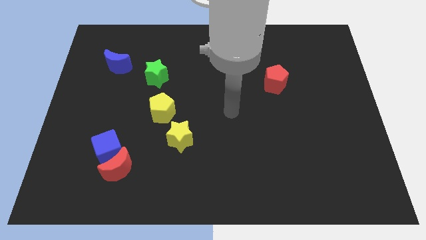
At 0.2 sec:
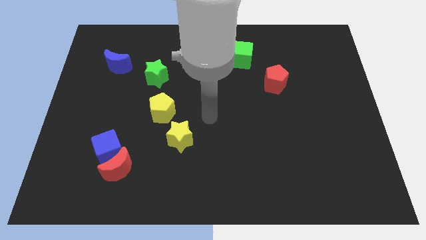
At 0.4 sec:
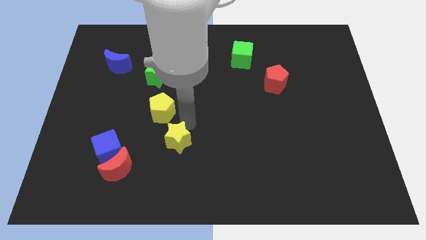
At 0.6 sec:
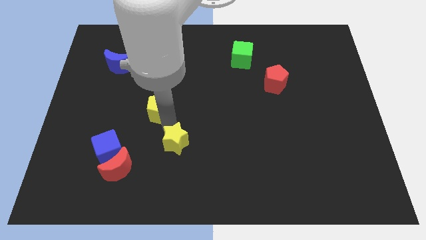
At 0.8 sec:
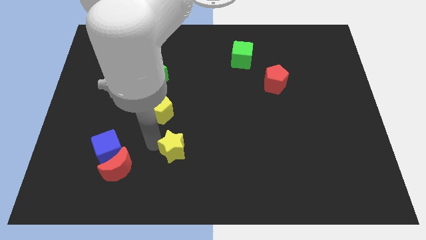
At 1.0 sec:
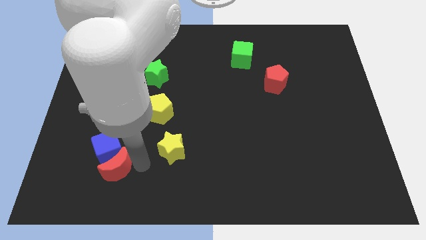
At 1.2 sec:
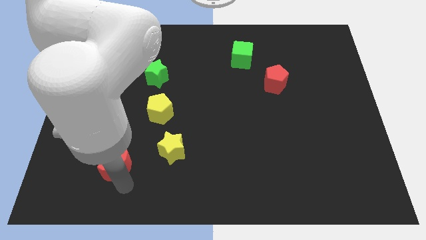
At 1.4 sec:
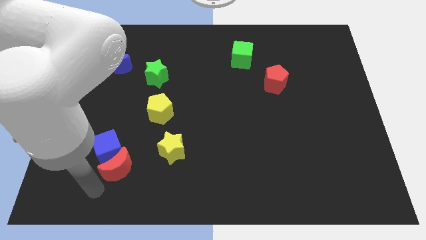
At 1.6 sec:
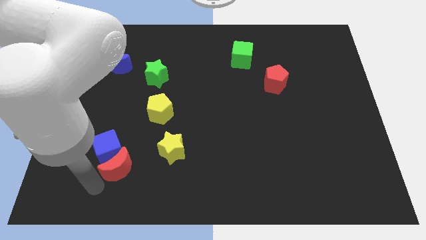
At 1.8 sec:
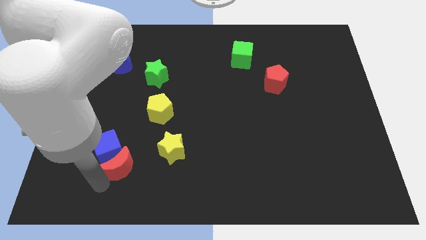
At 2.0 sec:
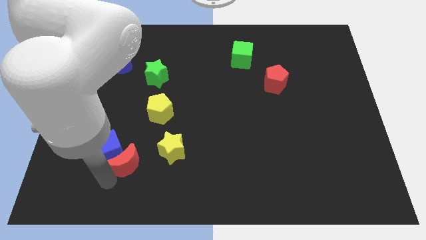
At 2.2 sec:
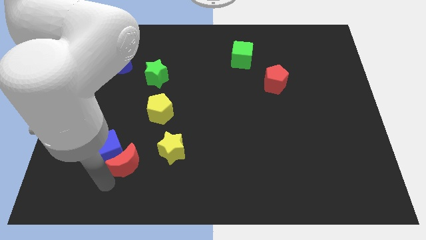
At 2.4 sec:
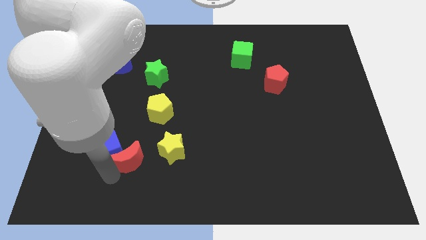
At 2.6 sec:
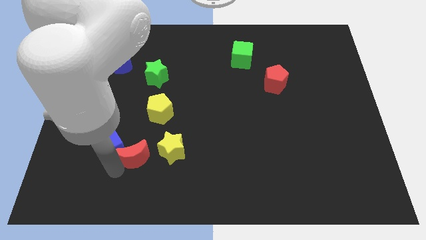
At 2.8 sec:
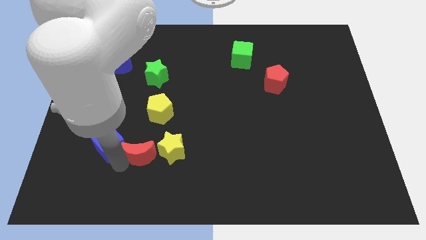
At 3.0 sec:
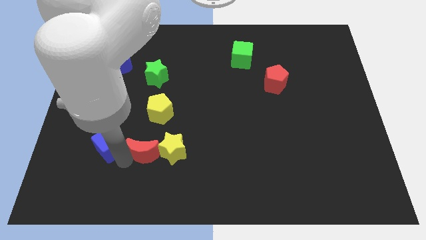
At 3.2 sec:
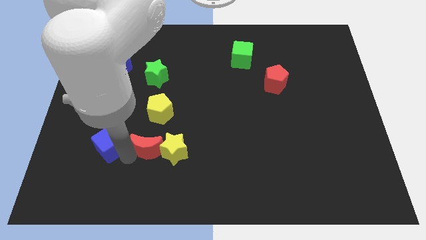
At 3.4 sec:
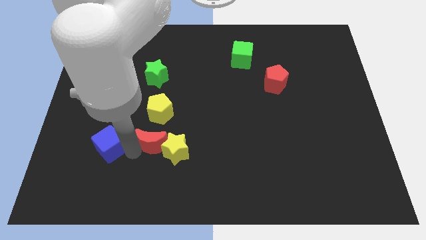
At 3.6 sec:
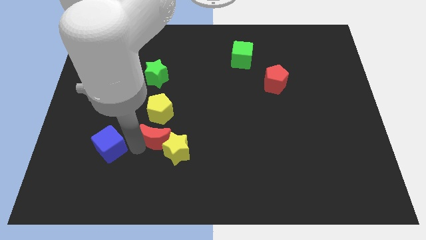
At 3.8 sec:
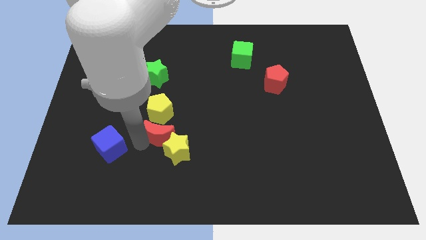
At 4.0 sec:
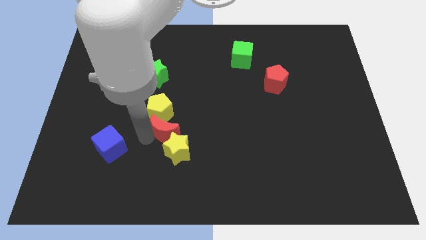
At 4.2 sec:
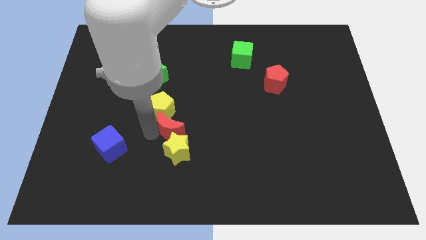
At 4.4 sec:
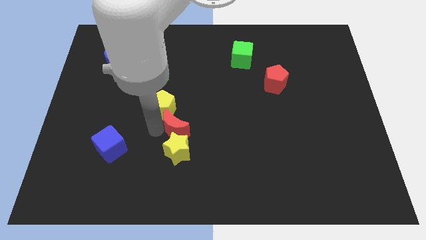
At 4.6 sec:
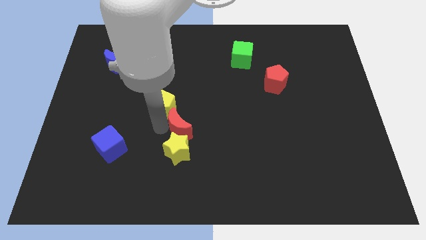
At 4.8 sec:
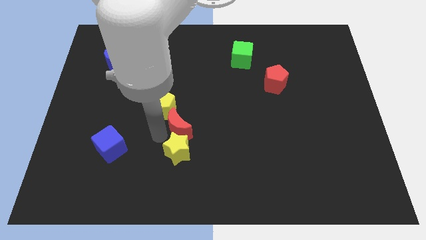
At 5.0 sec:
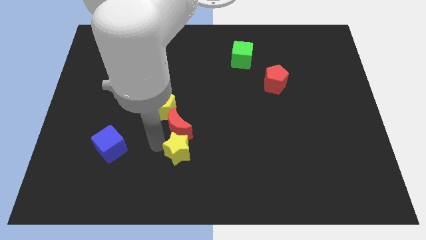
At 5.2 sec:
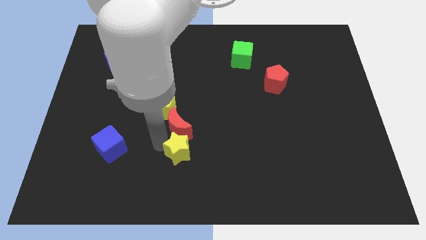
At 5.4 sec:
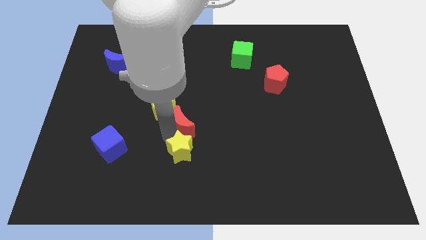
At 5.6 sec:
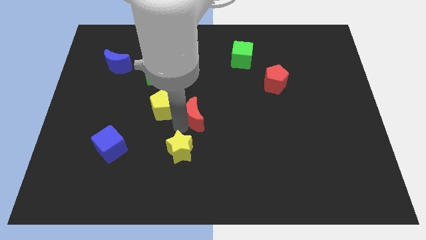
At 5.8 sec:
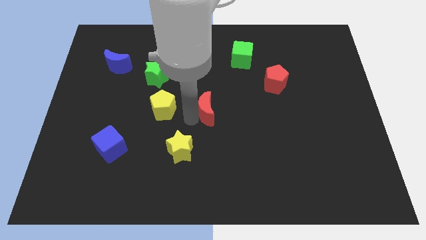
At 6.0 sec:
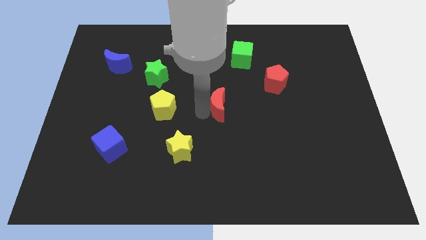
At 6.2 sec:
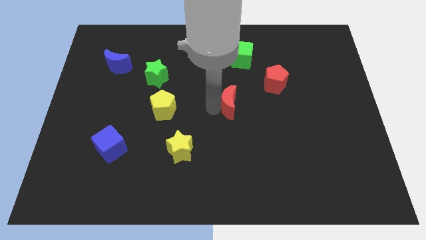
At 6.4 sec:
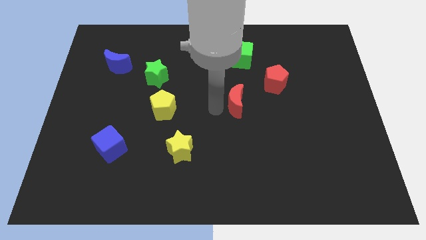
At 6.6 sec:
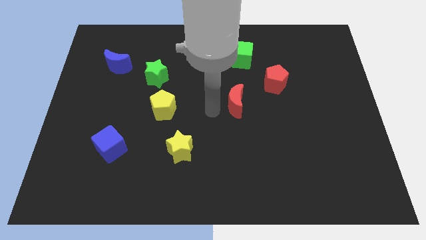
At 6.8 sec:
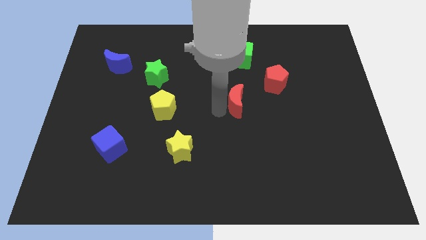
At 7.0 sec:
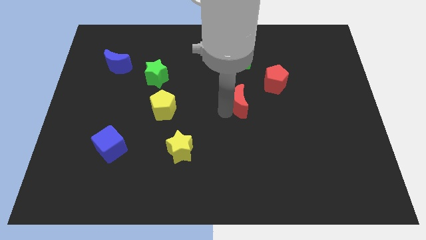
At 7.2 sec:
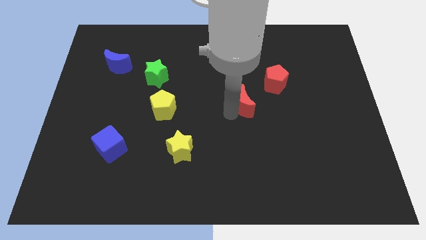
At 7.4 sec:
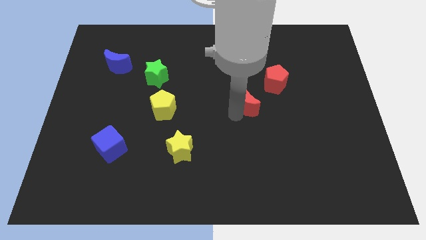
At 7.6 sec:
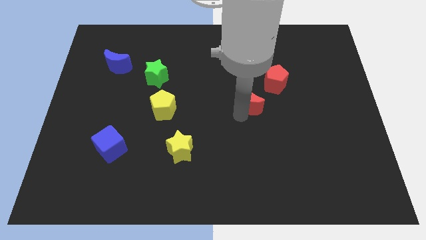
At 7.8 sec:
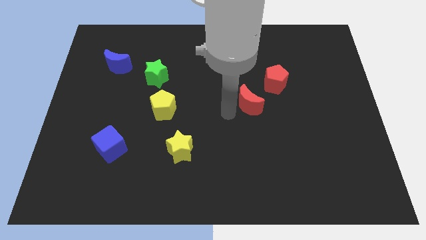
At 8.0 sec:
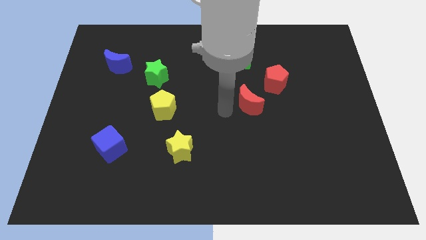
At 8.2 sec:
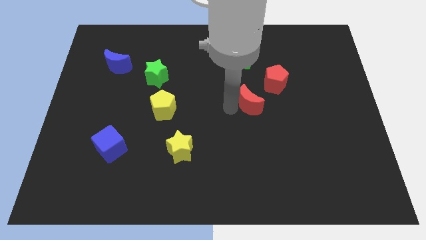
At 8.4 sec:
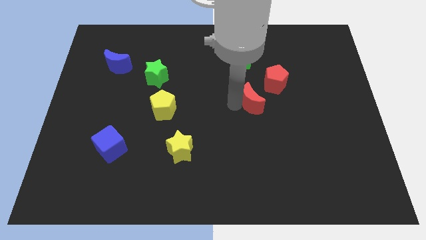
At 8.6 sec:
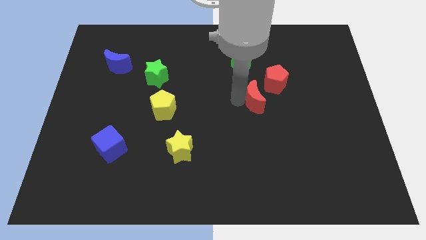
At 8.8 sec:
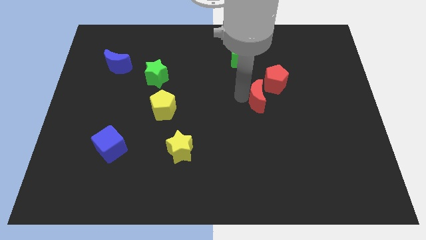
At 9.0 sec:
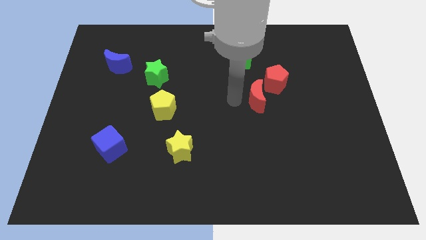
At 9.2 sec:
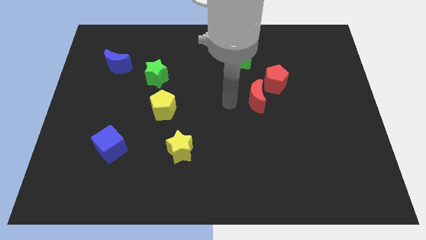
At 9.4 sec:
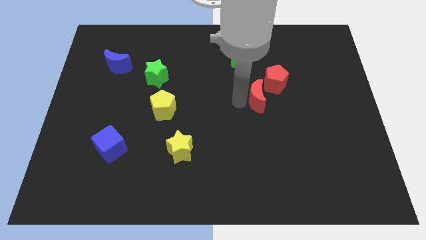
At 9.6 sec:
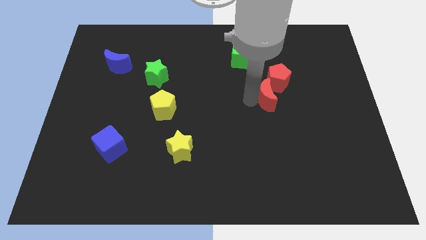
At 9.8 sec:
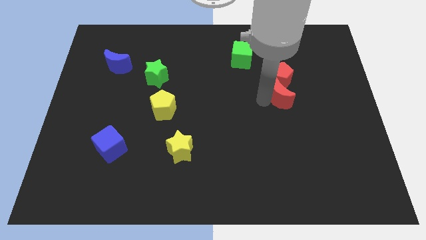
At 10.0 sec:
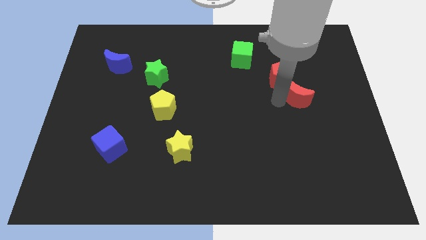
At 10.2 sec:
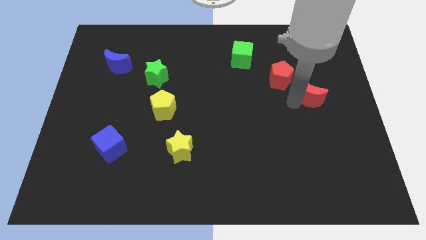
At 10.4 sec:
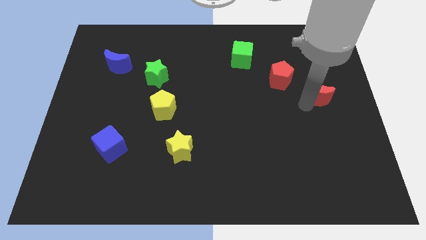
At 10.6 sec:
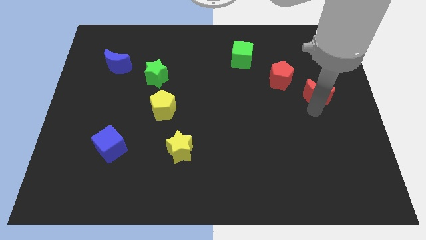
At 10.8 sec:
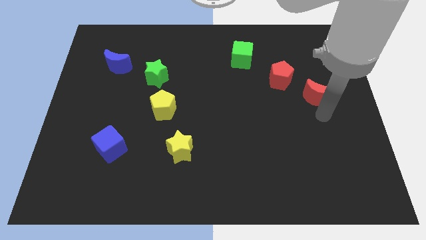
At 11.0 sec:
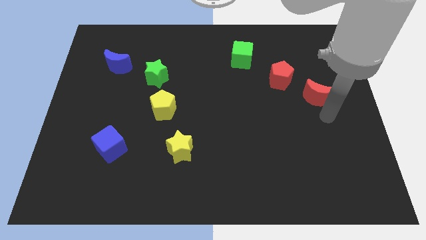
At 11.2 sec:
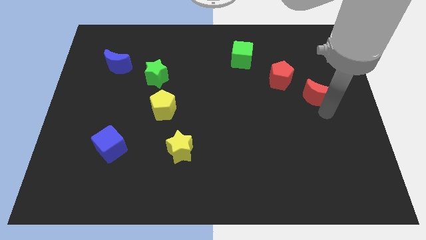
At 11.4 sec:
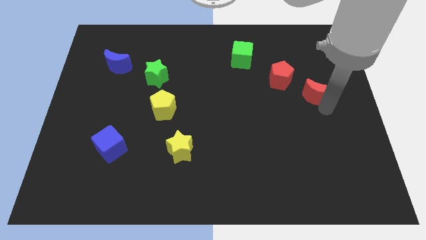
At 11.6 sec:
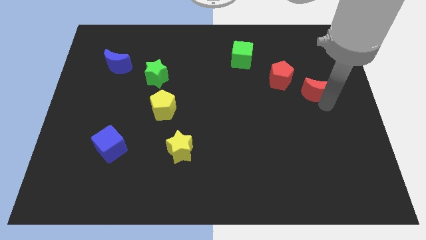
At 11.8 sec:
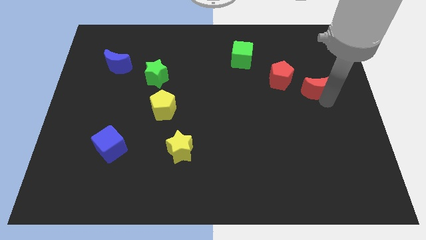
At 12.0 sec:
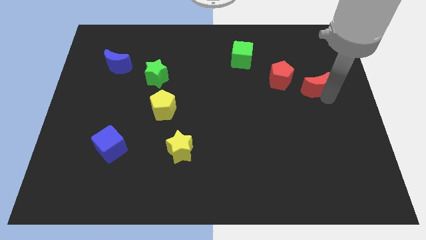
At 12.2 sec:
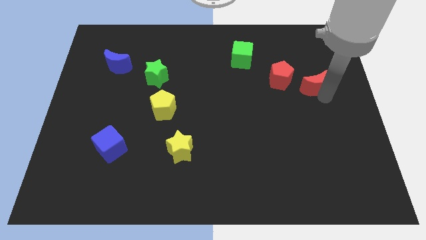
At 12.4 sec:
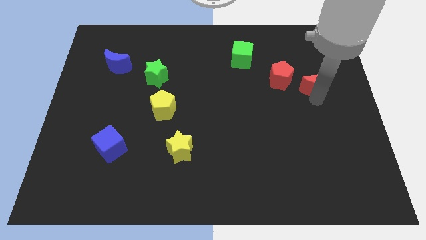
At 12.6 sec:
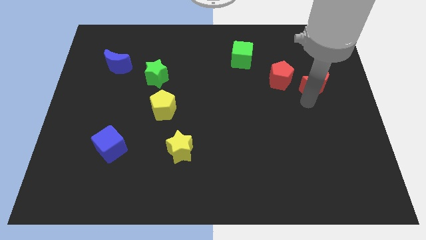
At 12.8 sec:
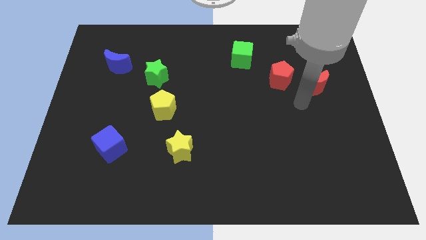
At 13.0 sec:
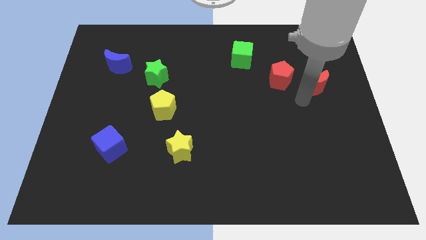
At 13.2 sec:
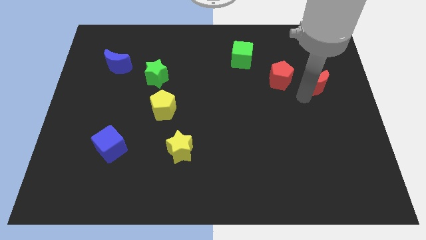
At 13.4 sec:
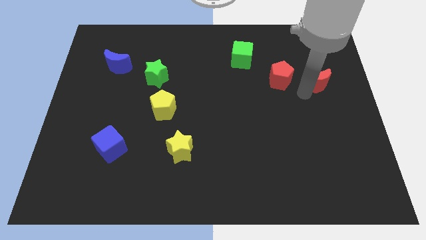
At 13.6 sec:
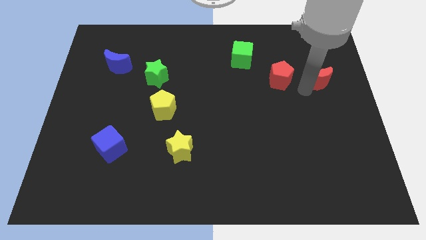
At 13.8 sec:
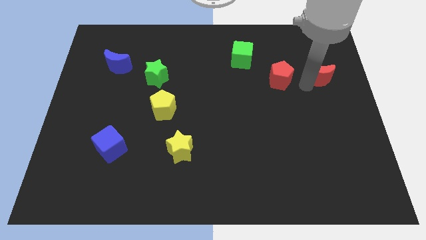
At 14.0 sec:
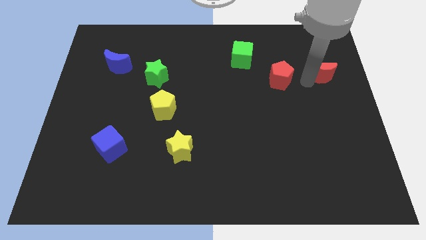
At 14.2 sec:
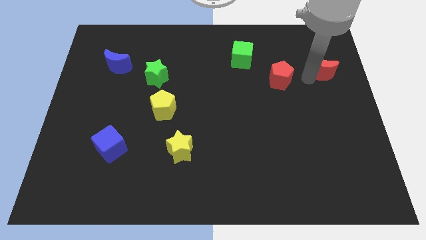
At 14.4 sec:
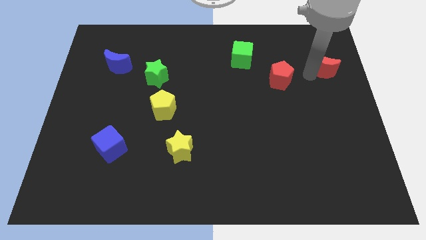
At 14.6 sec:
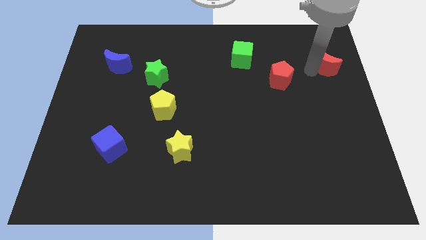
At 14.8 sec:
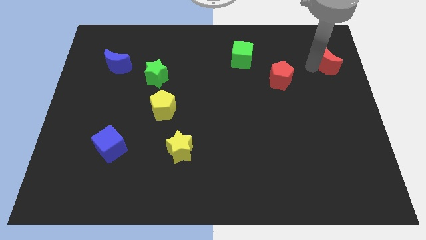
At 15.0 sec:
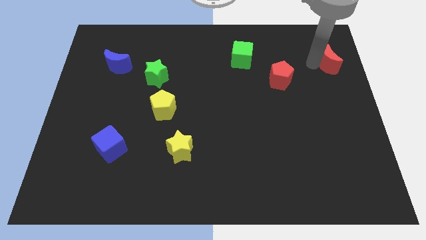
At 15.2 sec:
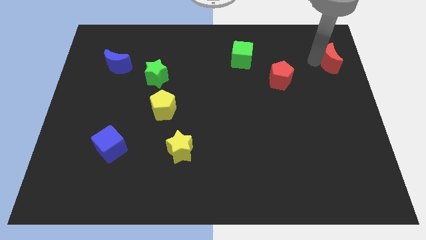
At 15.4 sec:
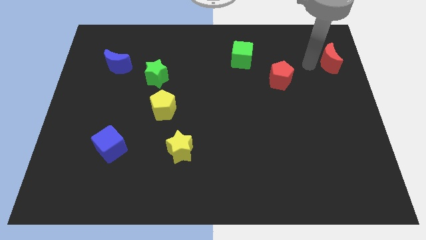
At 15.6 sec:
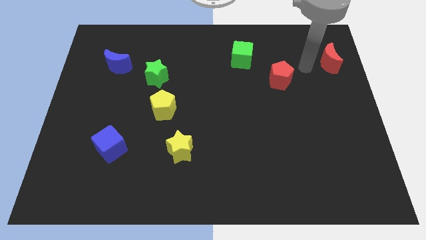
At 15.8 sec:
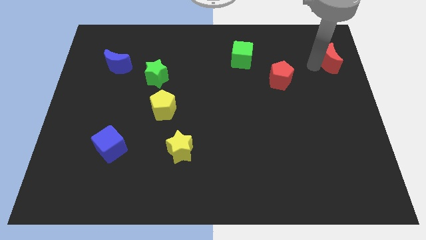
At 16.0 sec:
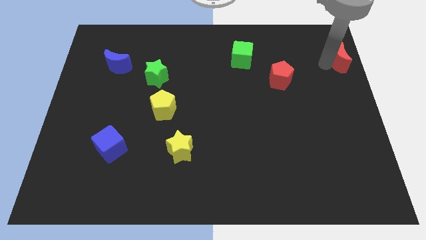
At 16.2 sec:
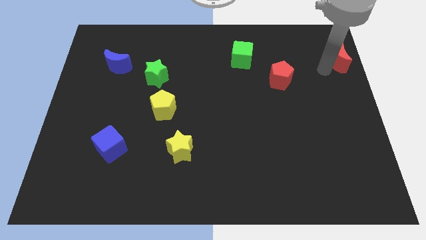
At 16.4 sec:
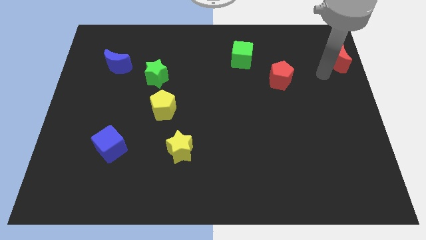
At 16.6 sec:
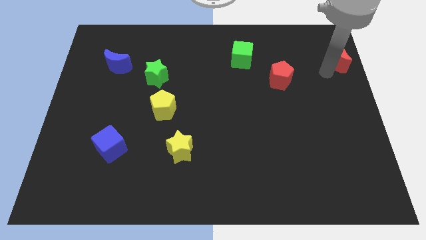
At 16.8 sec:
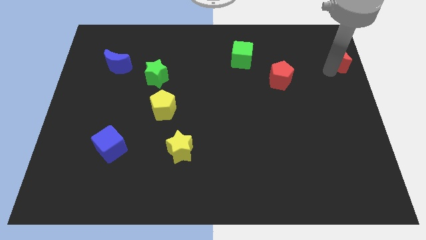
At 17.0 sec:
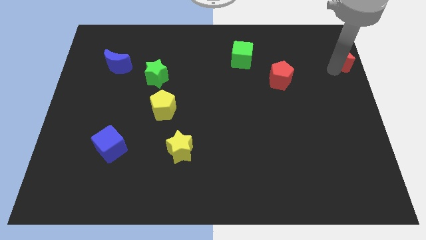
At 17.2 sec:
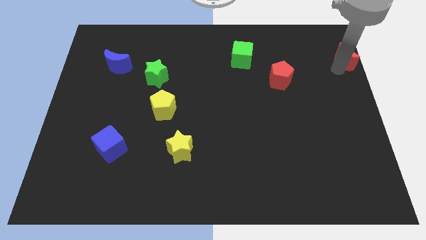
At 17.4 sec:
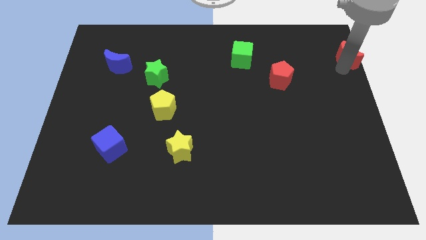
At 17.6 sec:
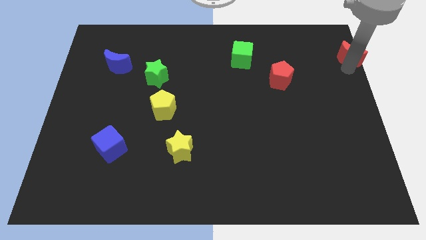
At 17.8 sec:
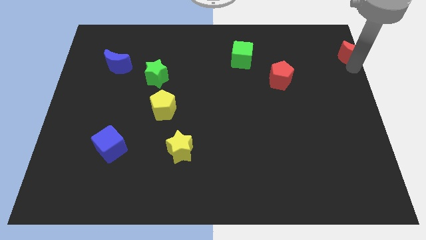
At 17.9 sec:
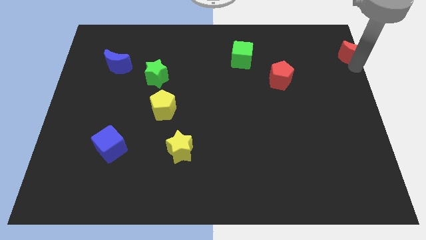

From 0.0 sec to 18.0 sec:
put the red moon to the top right
